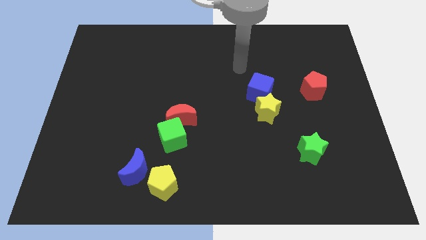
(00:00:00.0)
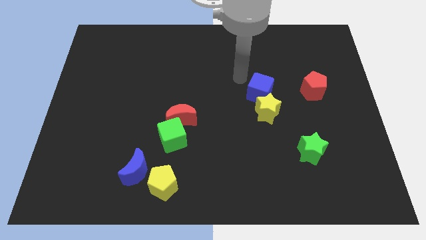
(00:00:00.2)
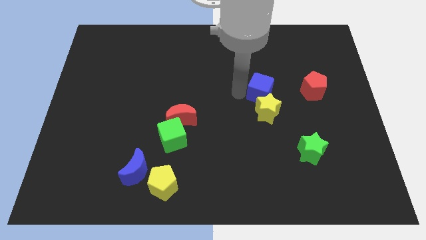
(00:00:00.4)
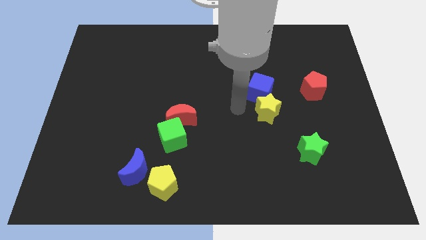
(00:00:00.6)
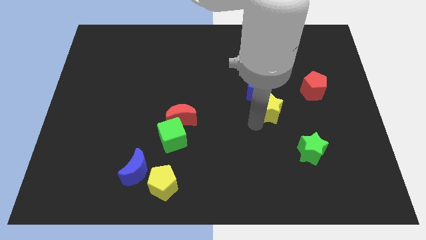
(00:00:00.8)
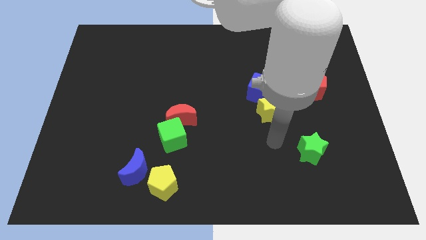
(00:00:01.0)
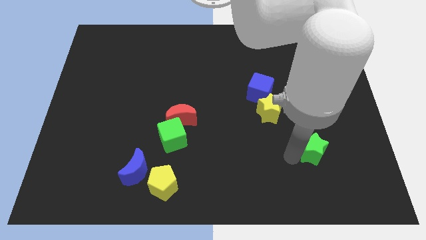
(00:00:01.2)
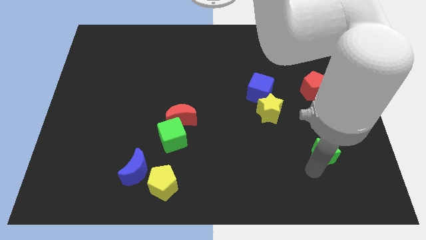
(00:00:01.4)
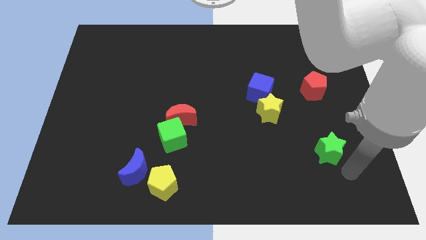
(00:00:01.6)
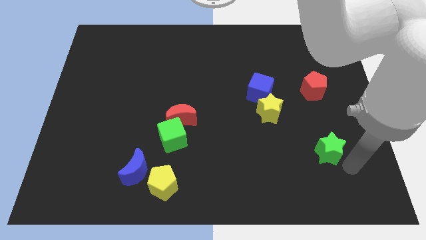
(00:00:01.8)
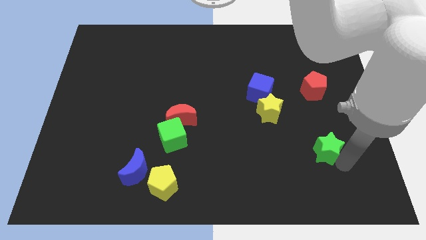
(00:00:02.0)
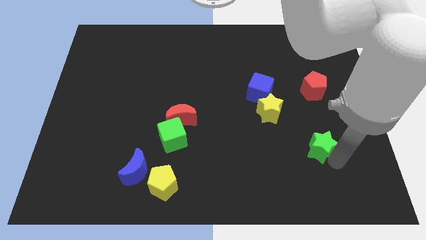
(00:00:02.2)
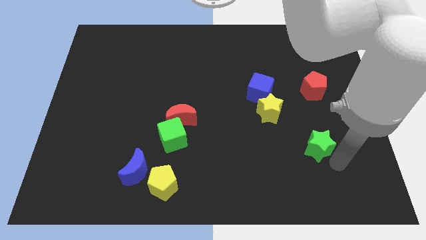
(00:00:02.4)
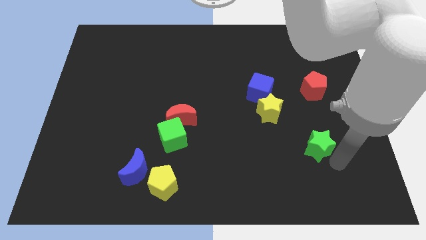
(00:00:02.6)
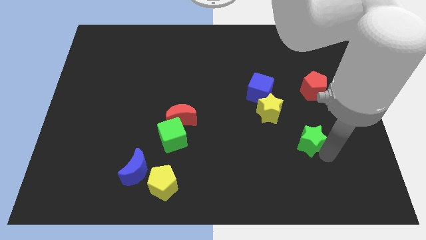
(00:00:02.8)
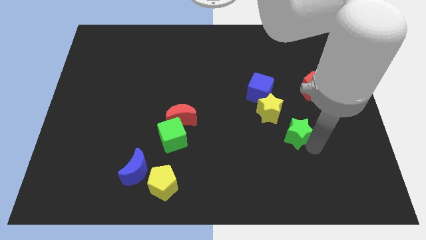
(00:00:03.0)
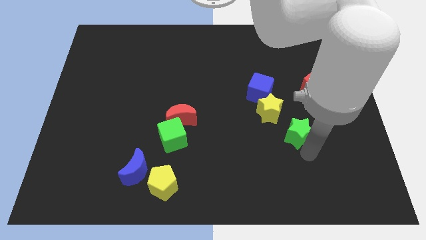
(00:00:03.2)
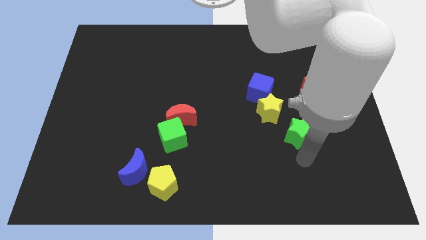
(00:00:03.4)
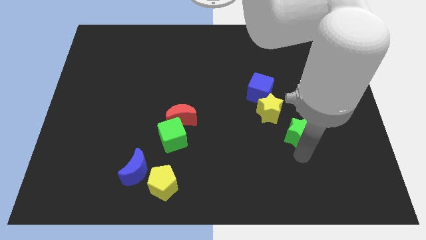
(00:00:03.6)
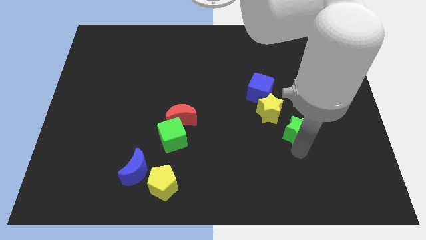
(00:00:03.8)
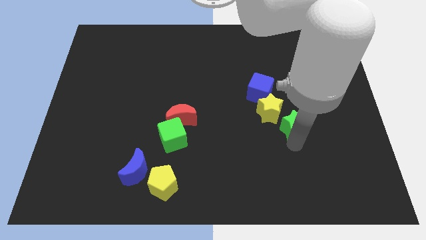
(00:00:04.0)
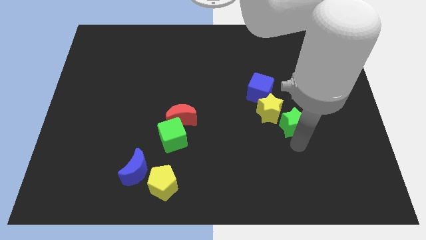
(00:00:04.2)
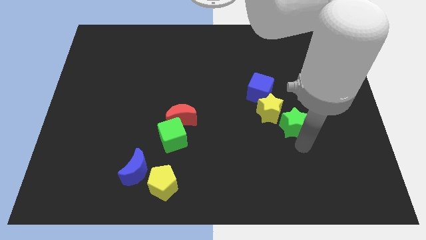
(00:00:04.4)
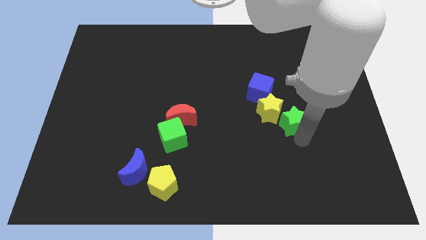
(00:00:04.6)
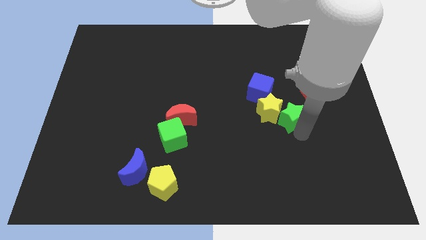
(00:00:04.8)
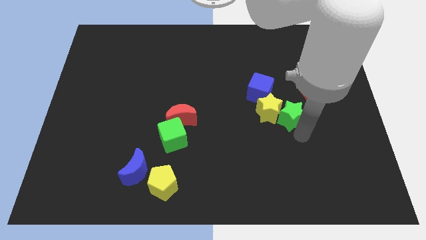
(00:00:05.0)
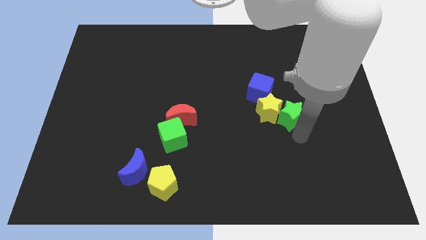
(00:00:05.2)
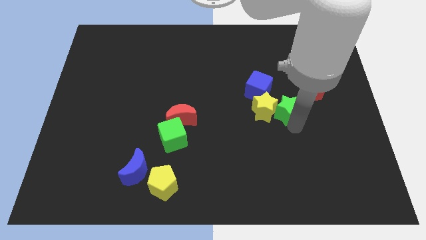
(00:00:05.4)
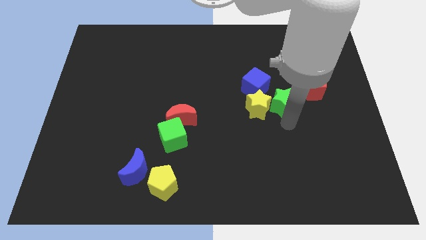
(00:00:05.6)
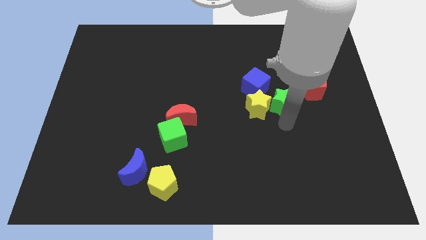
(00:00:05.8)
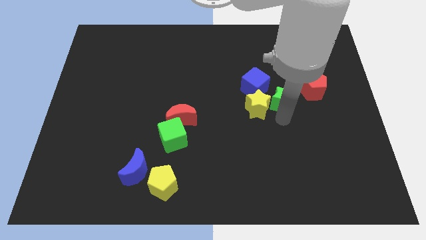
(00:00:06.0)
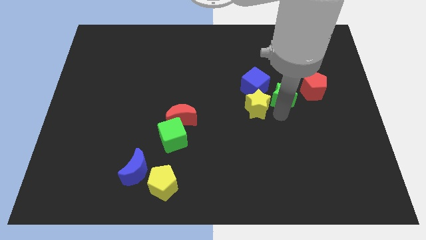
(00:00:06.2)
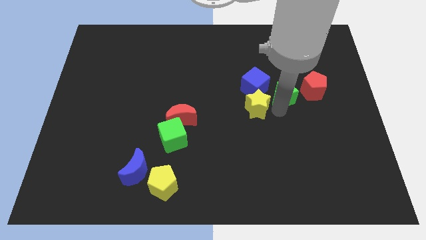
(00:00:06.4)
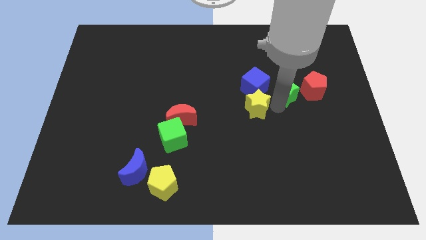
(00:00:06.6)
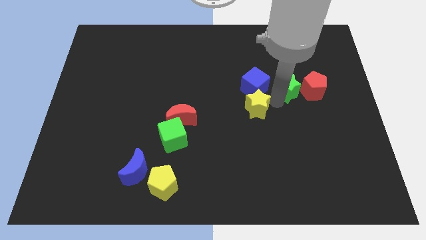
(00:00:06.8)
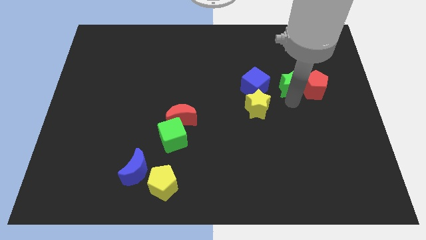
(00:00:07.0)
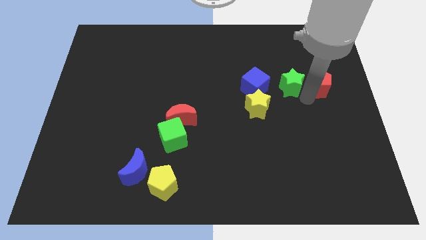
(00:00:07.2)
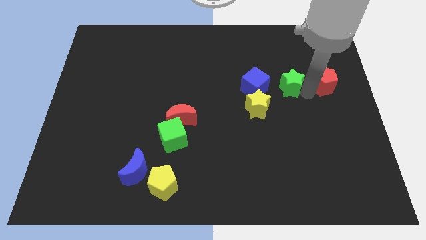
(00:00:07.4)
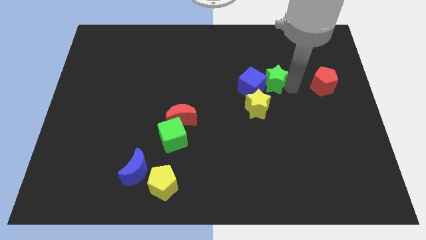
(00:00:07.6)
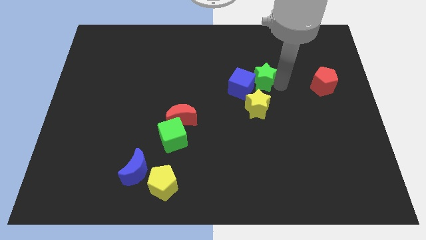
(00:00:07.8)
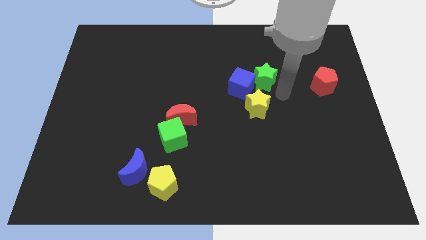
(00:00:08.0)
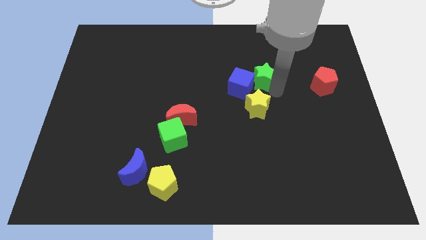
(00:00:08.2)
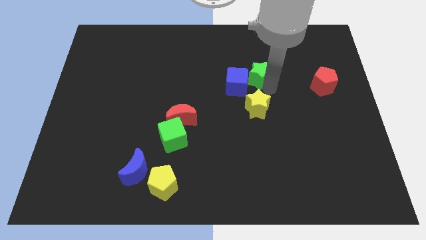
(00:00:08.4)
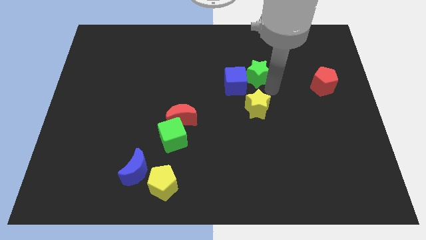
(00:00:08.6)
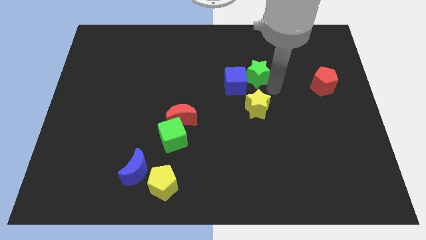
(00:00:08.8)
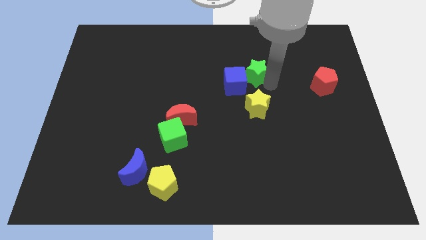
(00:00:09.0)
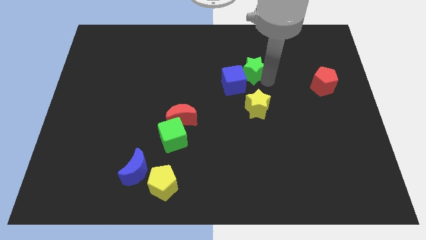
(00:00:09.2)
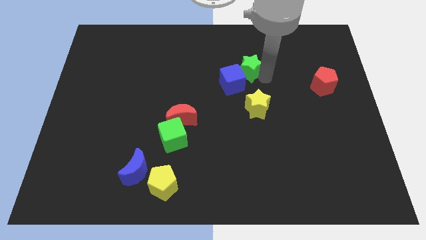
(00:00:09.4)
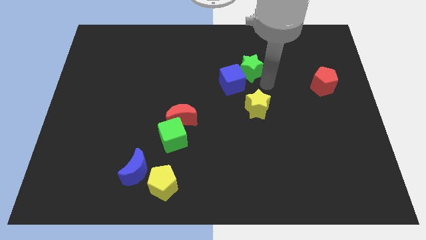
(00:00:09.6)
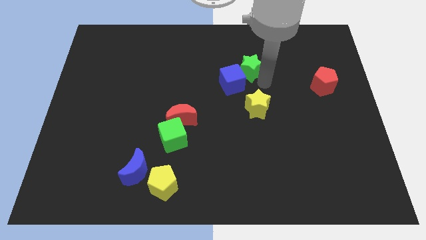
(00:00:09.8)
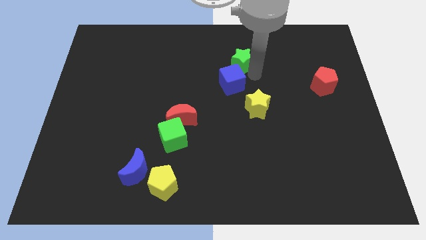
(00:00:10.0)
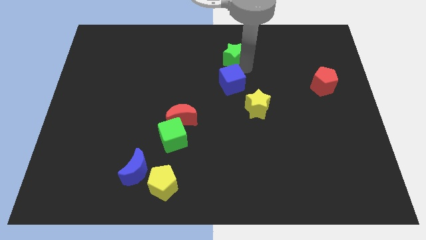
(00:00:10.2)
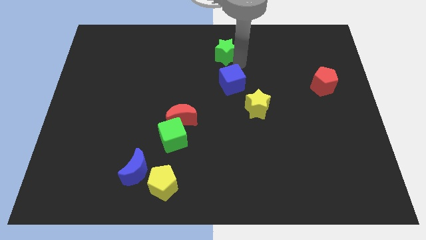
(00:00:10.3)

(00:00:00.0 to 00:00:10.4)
move the green star to the top

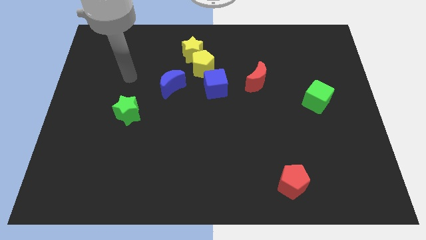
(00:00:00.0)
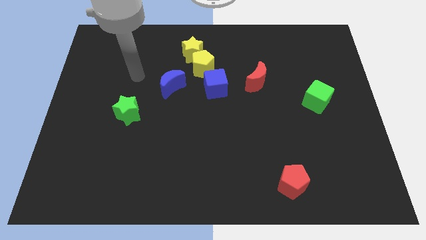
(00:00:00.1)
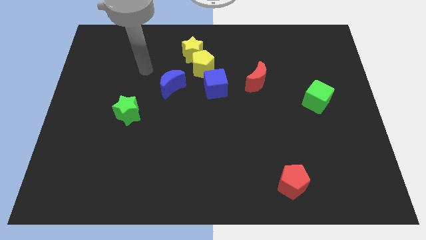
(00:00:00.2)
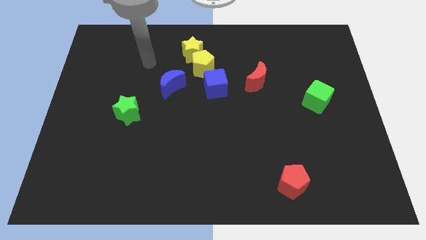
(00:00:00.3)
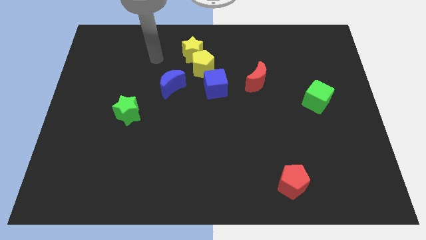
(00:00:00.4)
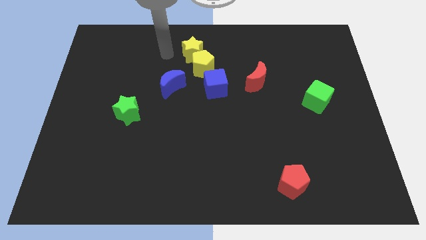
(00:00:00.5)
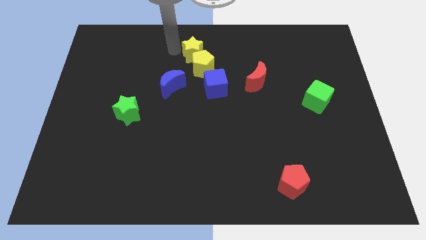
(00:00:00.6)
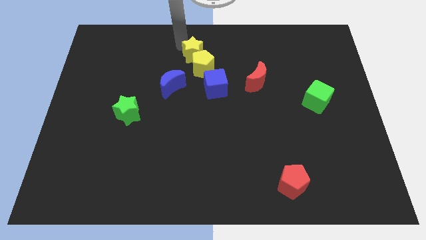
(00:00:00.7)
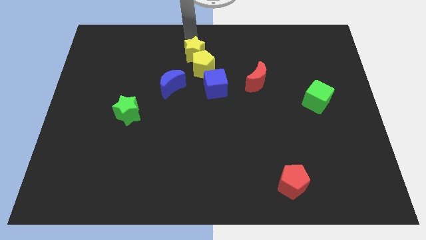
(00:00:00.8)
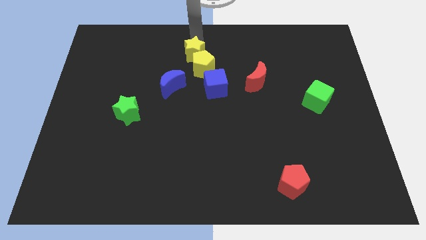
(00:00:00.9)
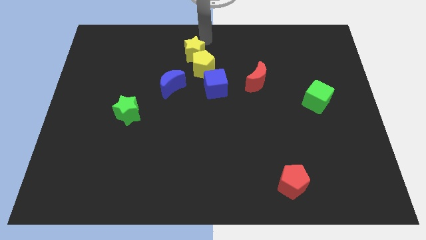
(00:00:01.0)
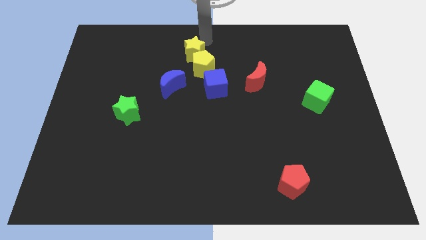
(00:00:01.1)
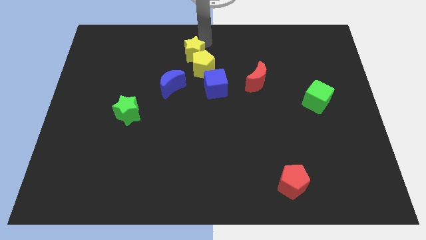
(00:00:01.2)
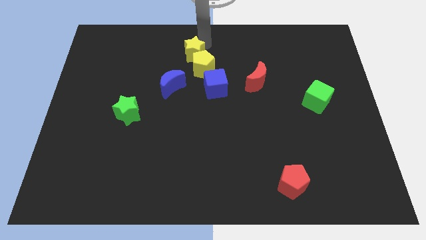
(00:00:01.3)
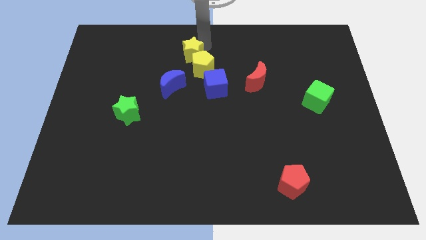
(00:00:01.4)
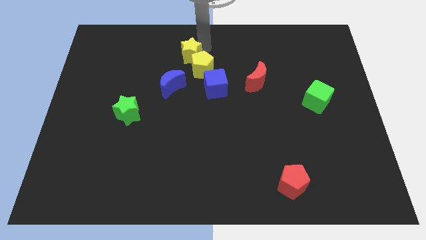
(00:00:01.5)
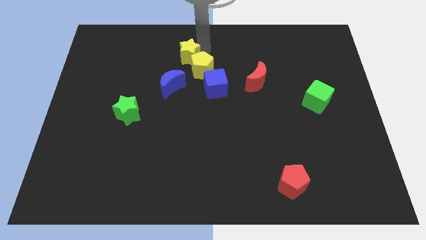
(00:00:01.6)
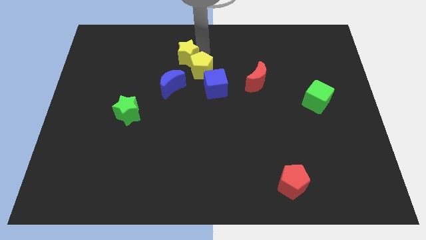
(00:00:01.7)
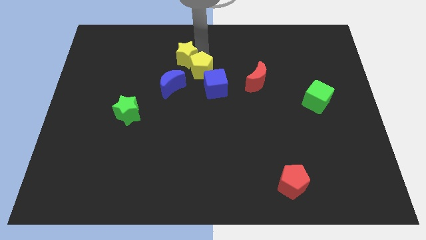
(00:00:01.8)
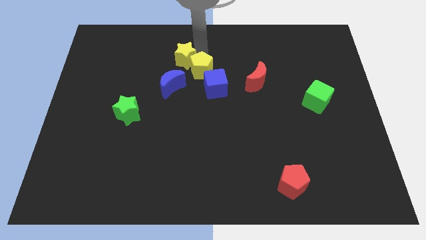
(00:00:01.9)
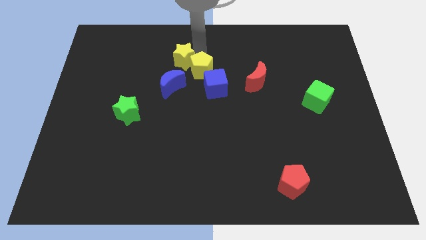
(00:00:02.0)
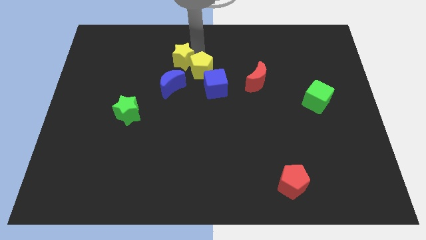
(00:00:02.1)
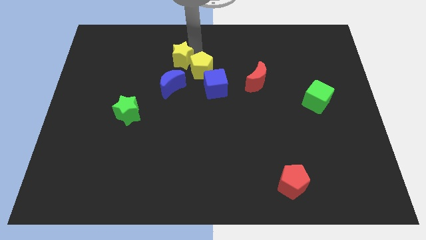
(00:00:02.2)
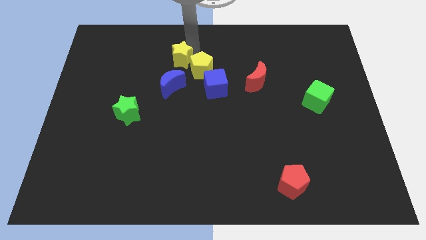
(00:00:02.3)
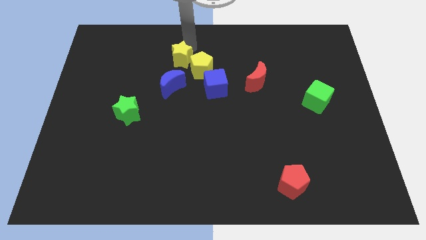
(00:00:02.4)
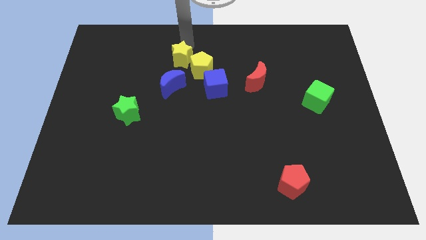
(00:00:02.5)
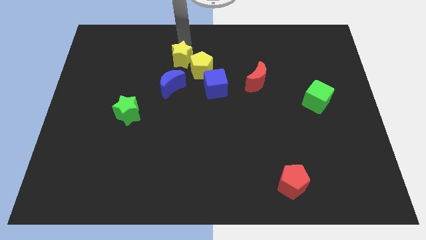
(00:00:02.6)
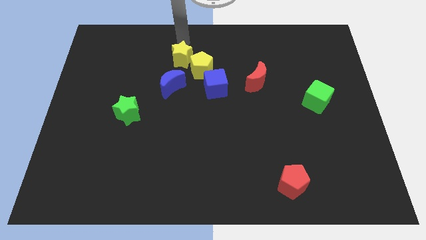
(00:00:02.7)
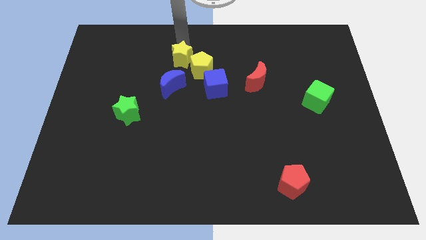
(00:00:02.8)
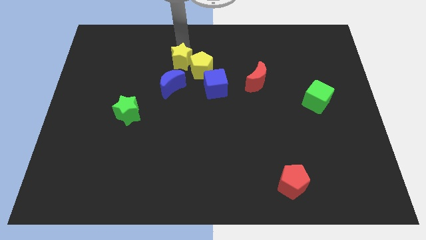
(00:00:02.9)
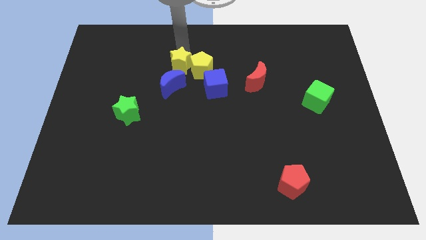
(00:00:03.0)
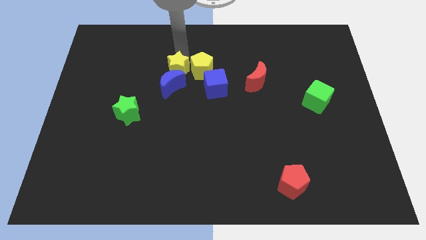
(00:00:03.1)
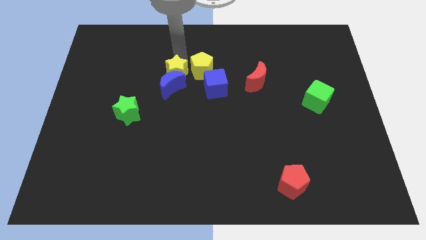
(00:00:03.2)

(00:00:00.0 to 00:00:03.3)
slide the yellow star to the middle
